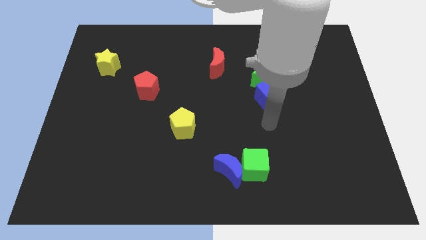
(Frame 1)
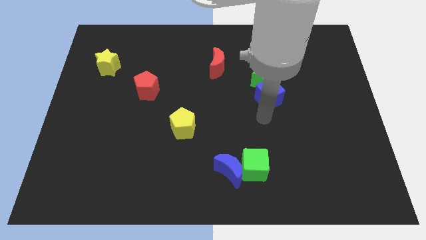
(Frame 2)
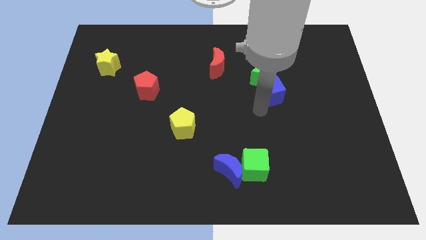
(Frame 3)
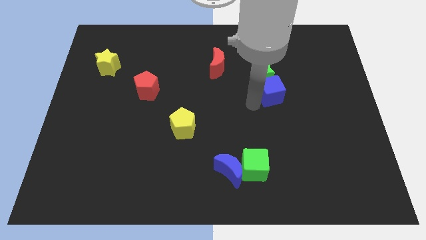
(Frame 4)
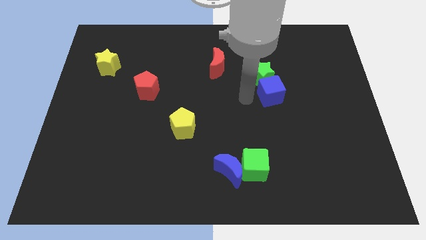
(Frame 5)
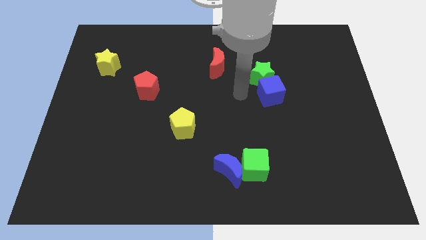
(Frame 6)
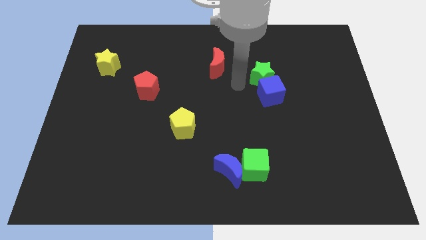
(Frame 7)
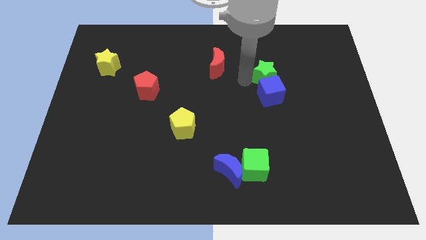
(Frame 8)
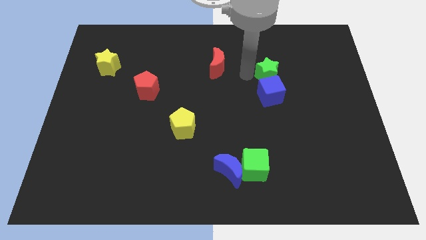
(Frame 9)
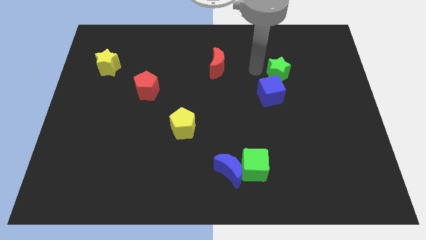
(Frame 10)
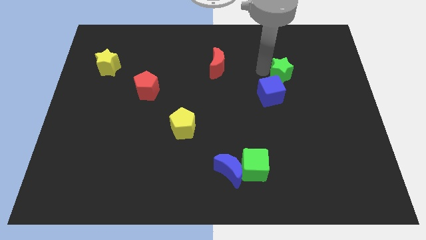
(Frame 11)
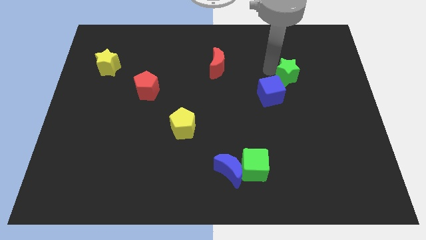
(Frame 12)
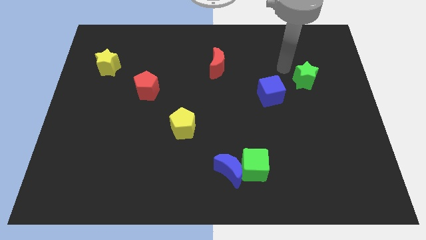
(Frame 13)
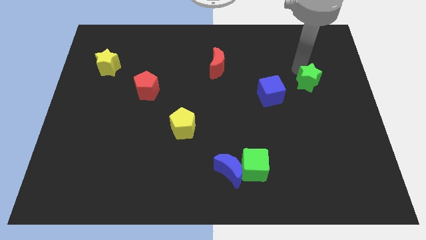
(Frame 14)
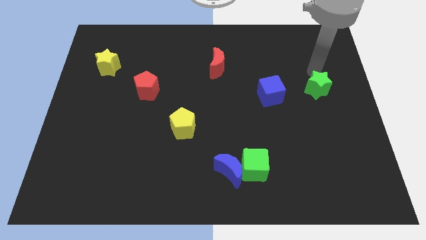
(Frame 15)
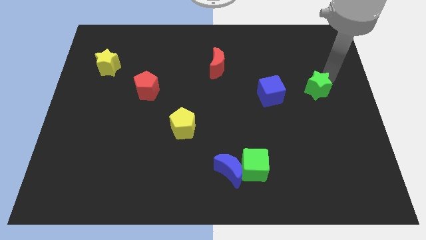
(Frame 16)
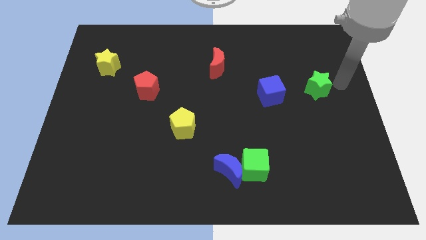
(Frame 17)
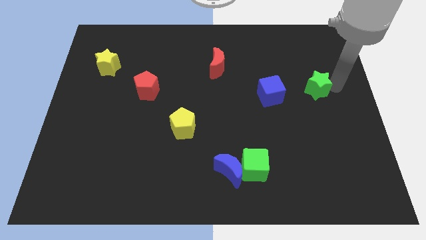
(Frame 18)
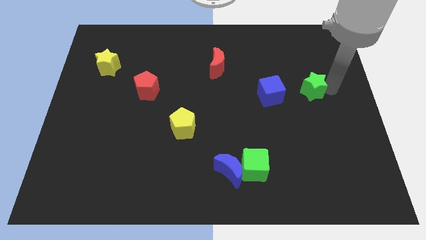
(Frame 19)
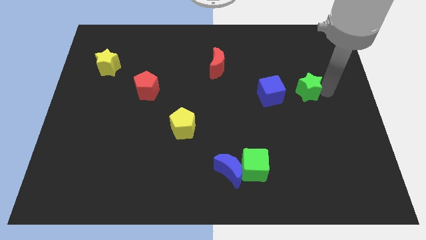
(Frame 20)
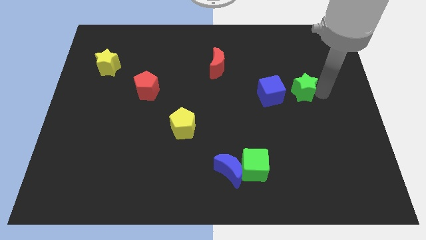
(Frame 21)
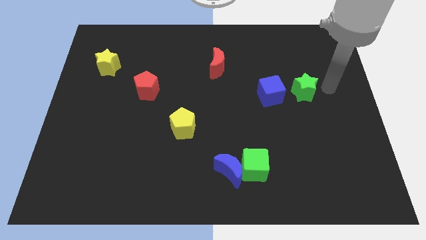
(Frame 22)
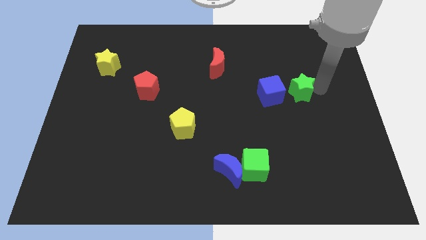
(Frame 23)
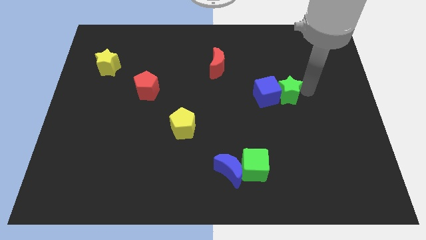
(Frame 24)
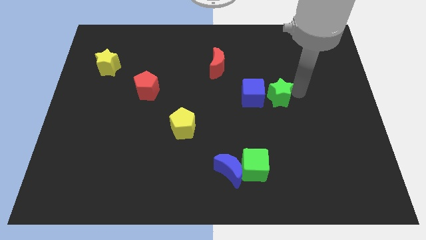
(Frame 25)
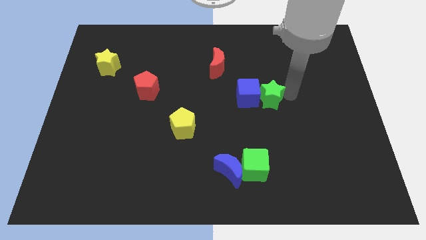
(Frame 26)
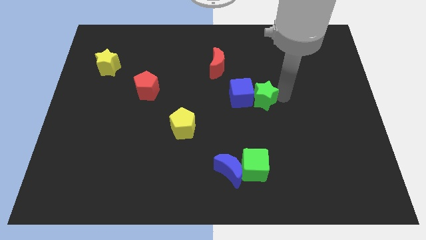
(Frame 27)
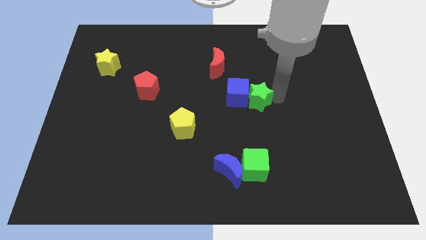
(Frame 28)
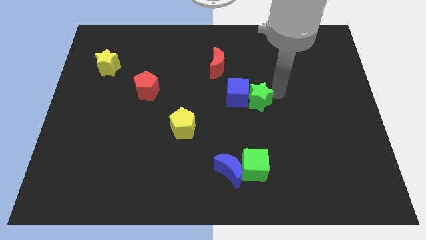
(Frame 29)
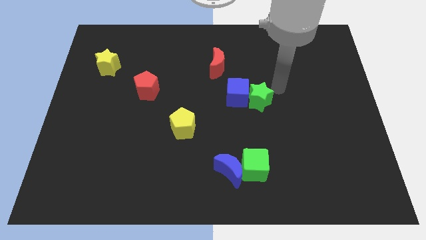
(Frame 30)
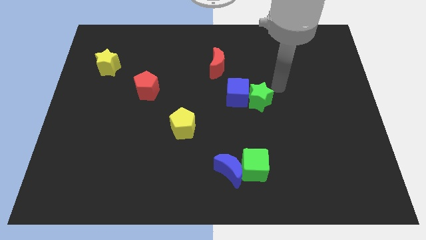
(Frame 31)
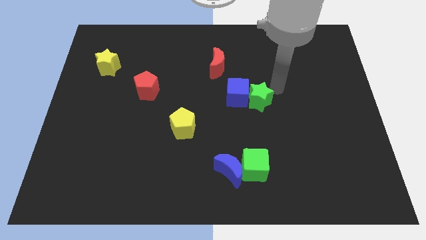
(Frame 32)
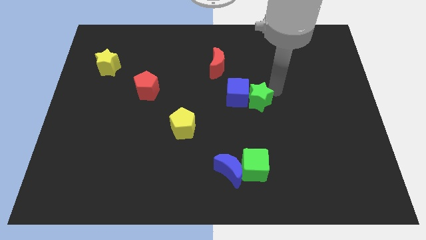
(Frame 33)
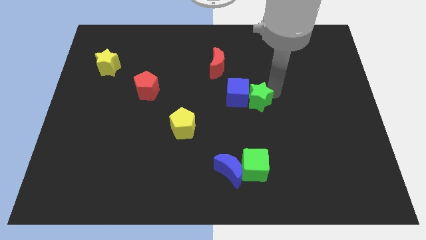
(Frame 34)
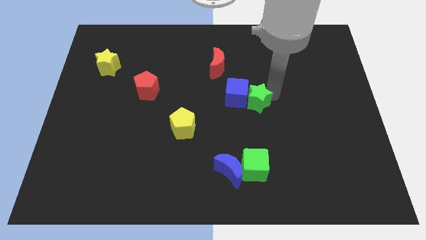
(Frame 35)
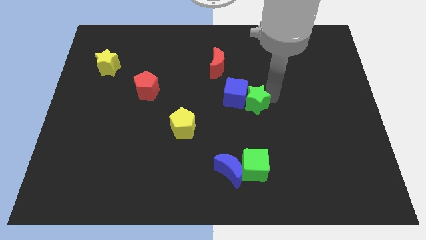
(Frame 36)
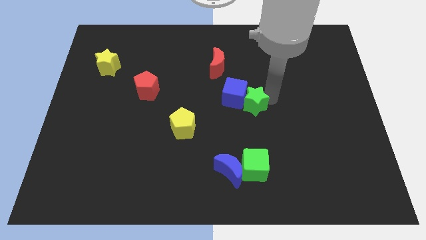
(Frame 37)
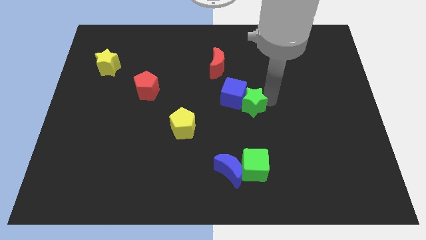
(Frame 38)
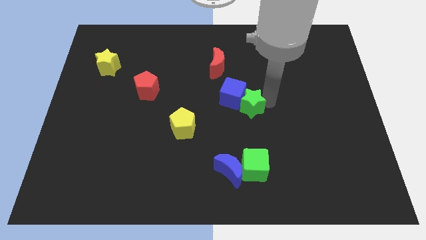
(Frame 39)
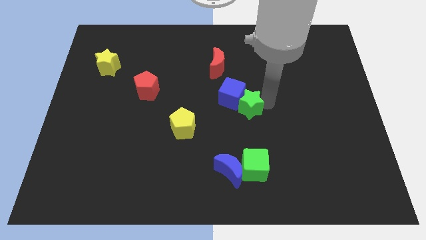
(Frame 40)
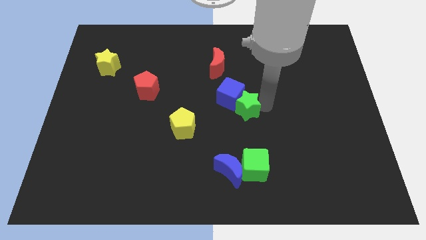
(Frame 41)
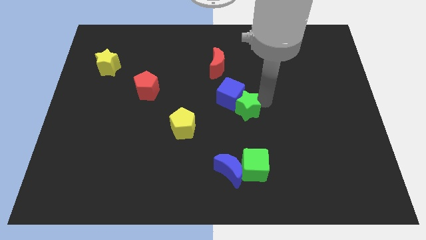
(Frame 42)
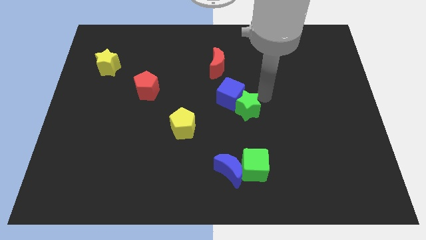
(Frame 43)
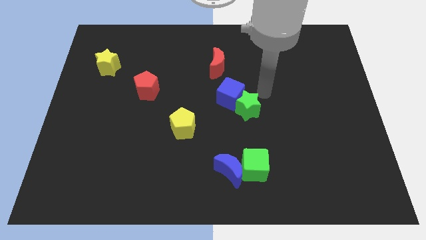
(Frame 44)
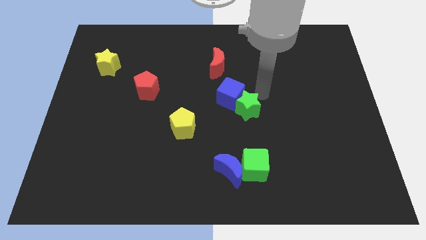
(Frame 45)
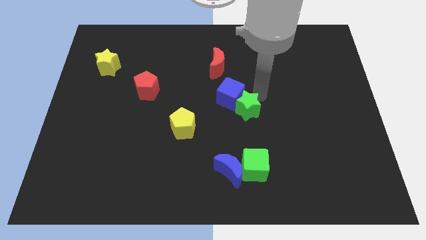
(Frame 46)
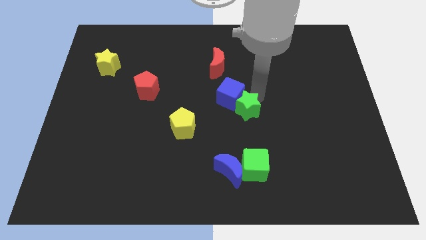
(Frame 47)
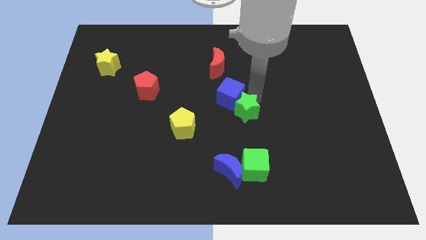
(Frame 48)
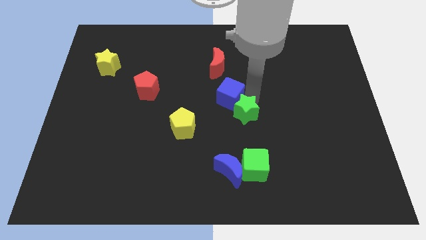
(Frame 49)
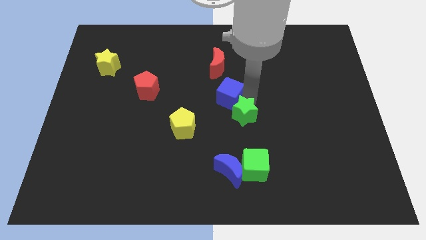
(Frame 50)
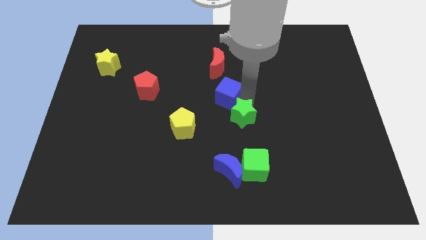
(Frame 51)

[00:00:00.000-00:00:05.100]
put the green star to the top side of the blue moon

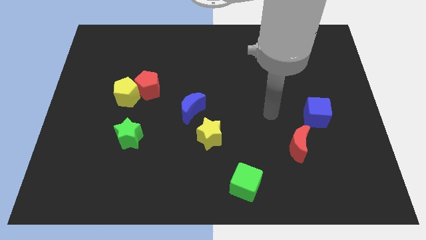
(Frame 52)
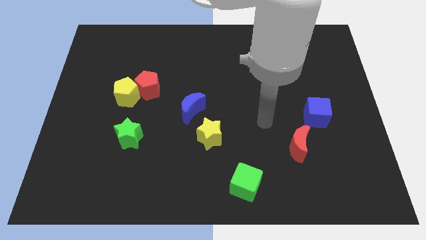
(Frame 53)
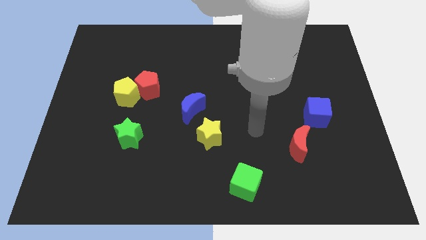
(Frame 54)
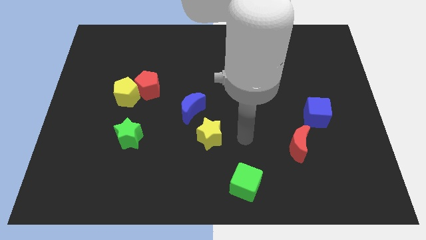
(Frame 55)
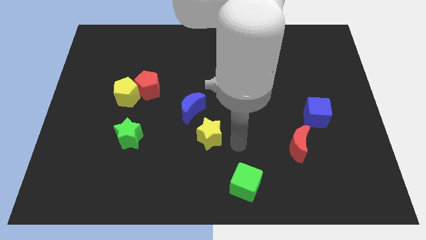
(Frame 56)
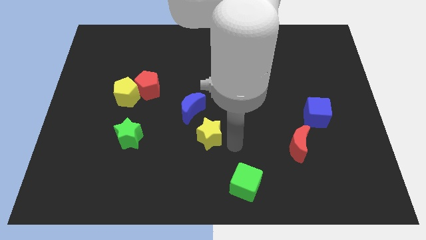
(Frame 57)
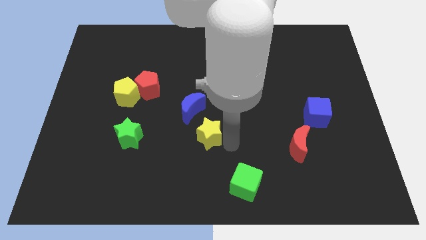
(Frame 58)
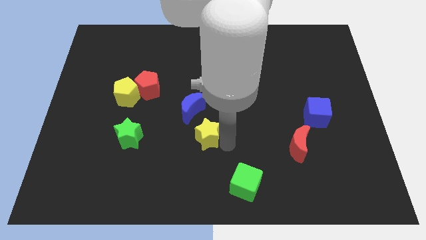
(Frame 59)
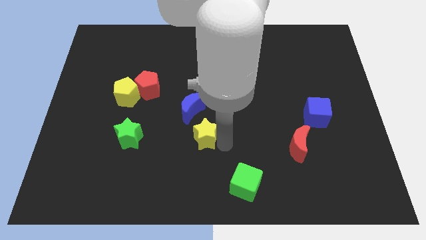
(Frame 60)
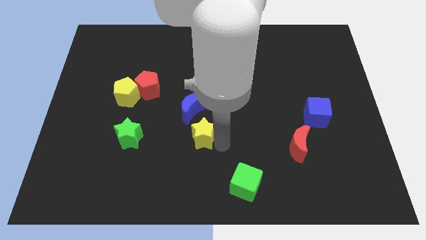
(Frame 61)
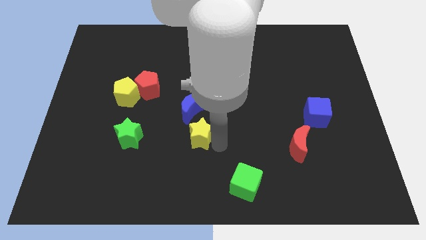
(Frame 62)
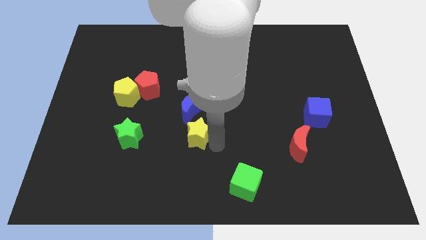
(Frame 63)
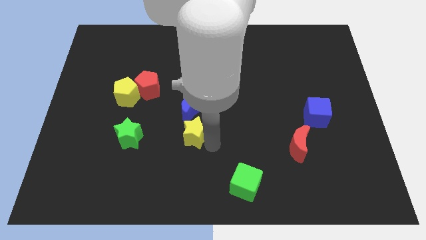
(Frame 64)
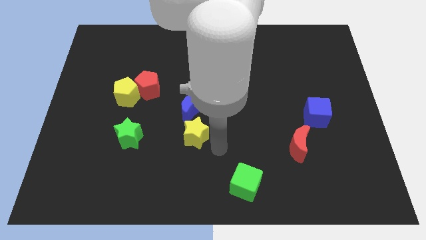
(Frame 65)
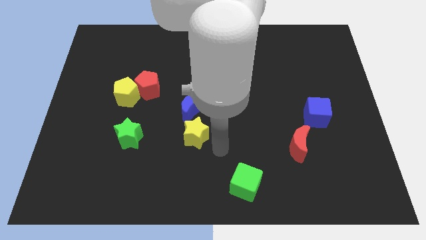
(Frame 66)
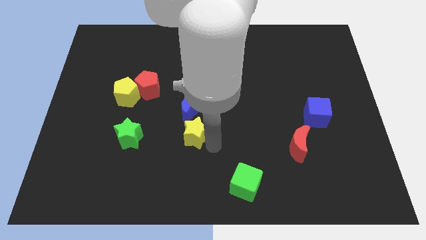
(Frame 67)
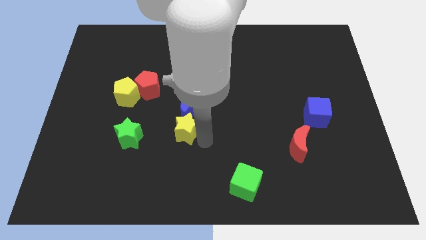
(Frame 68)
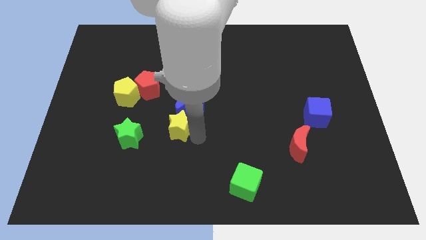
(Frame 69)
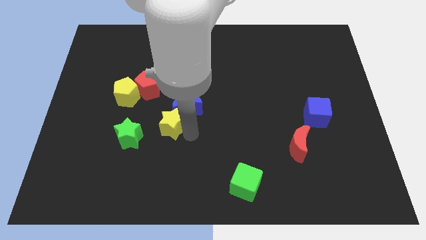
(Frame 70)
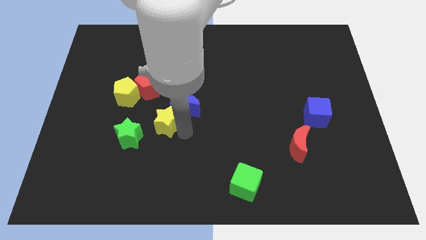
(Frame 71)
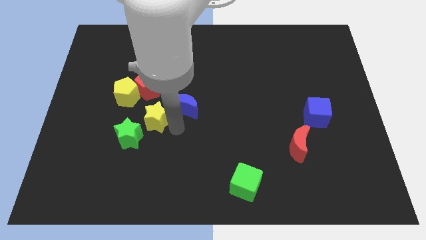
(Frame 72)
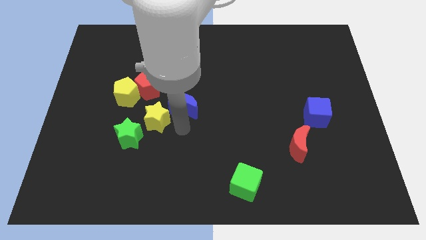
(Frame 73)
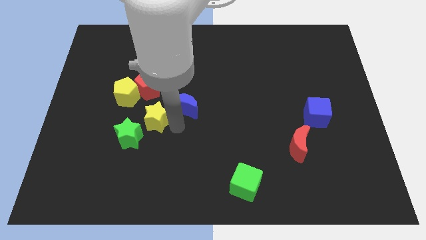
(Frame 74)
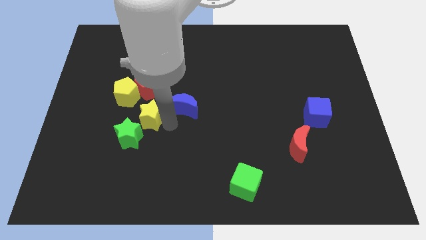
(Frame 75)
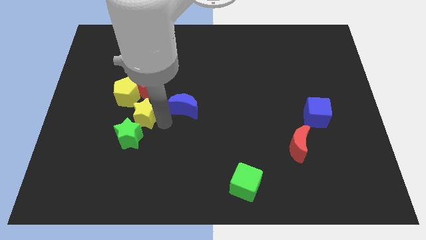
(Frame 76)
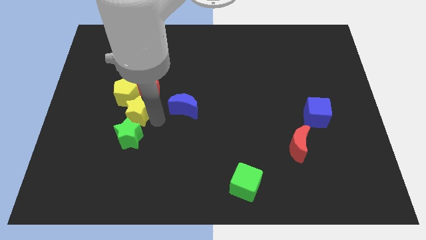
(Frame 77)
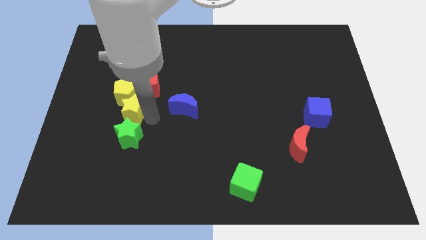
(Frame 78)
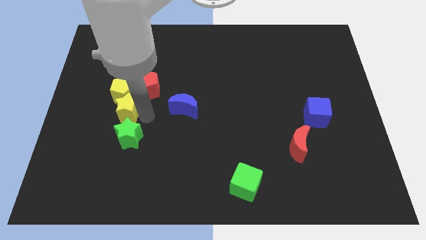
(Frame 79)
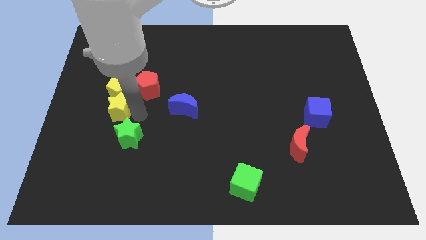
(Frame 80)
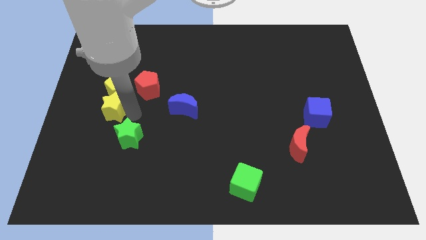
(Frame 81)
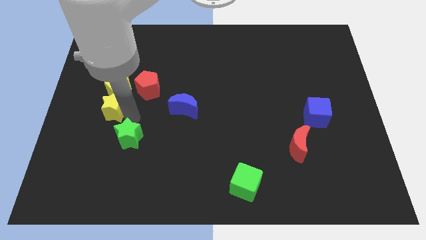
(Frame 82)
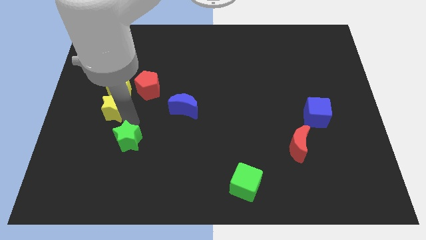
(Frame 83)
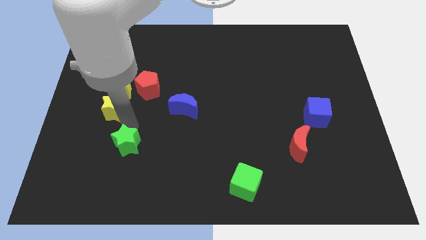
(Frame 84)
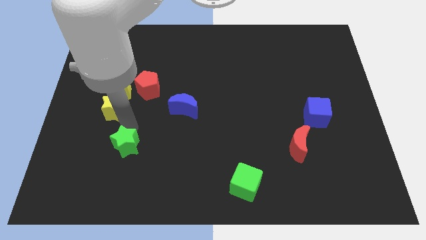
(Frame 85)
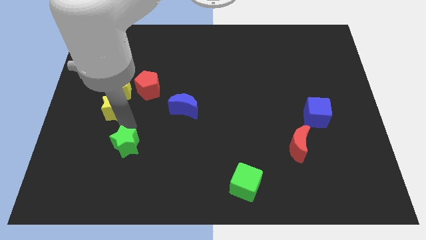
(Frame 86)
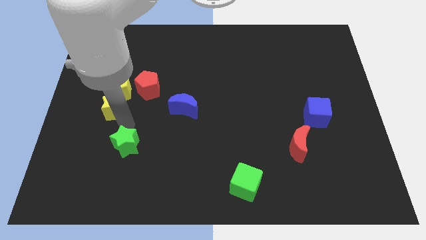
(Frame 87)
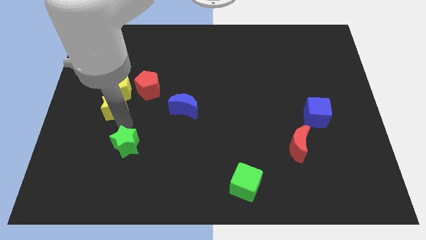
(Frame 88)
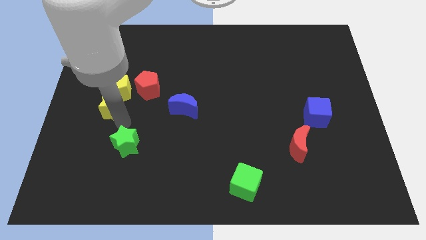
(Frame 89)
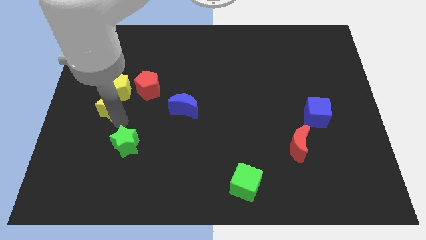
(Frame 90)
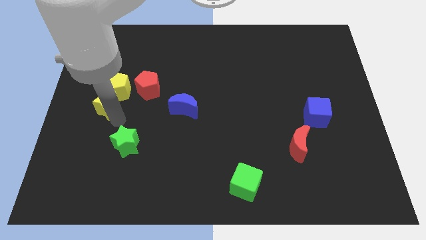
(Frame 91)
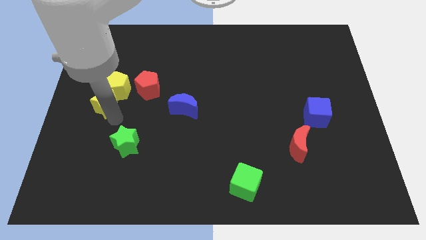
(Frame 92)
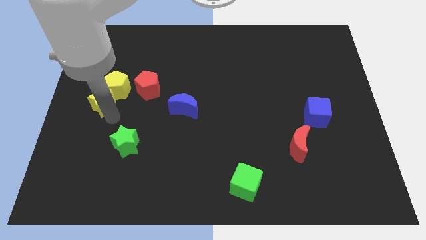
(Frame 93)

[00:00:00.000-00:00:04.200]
slide the yellow star just left of the red pentagon
